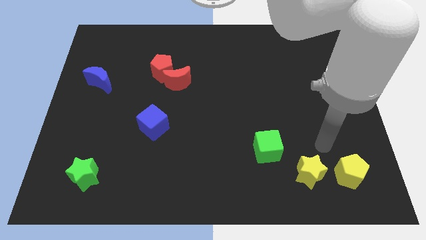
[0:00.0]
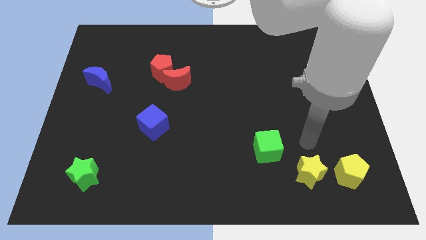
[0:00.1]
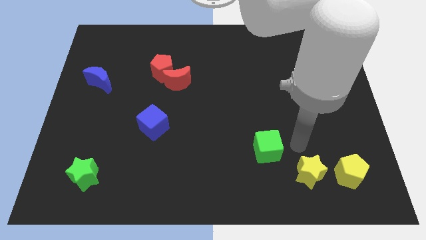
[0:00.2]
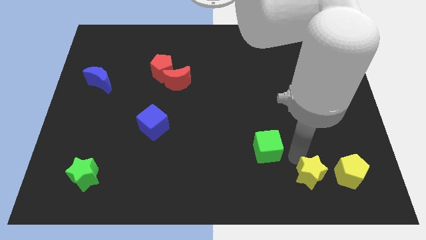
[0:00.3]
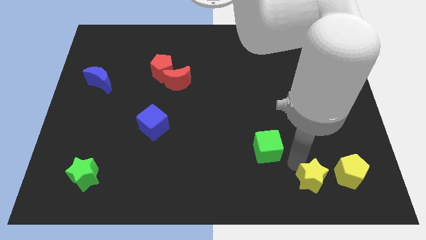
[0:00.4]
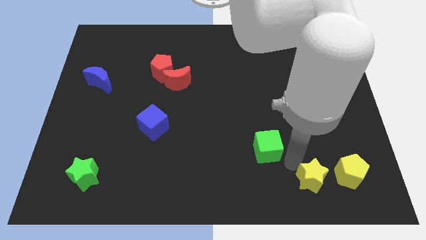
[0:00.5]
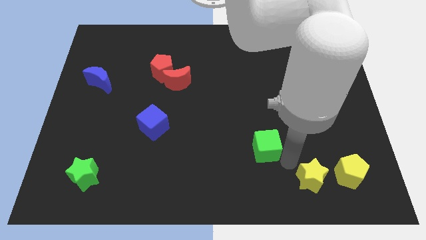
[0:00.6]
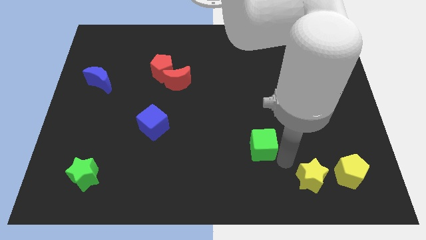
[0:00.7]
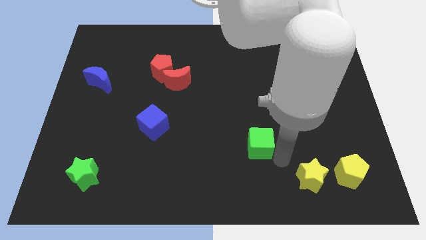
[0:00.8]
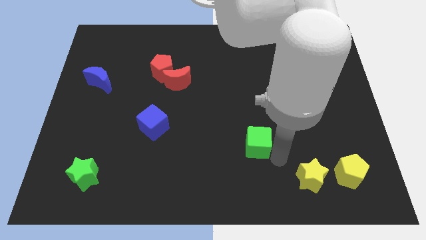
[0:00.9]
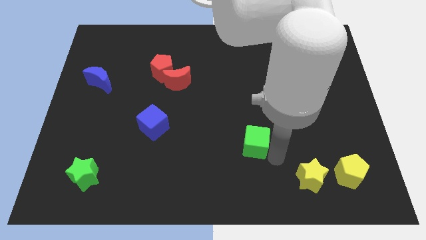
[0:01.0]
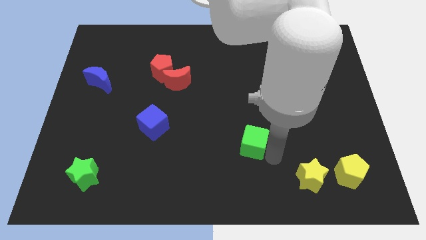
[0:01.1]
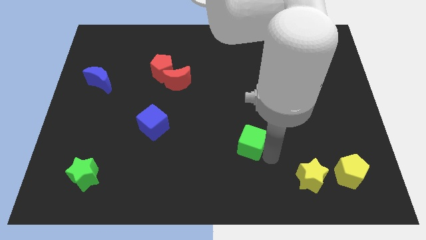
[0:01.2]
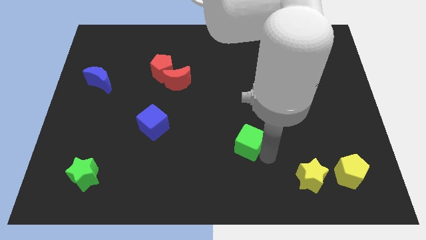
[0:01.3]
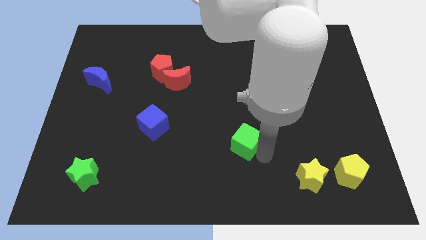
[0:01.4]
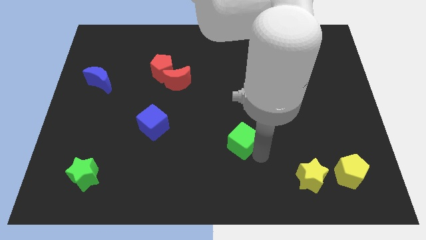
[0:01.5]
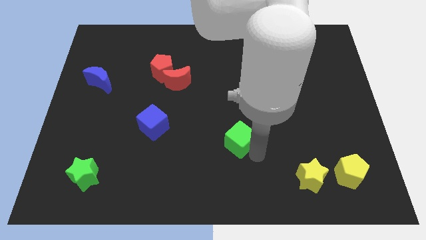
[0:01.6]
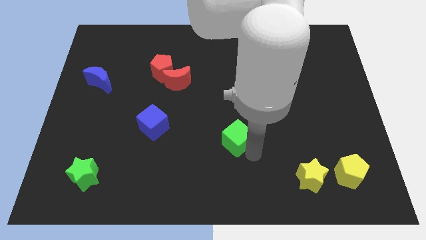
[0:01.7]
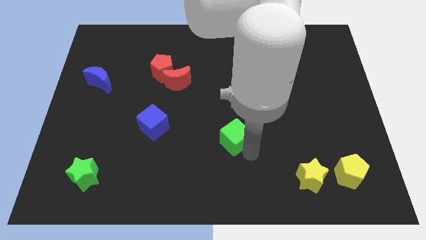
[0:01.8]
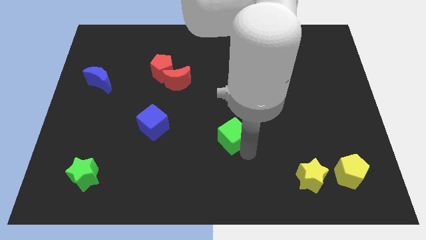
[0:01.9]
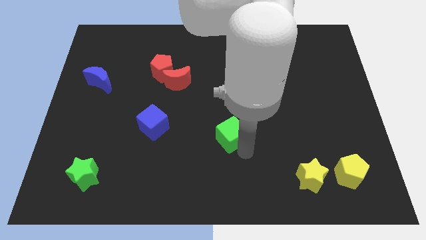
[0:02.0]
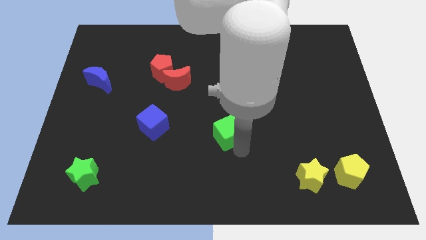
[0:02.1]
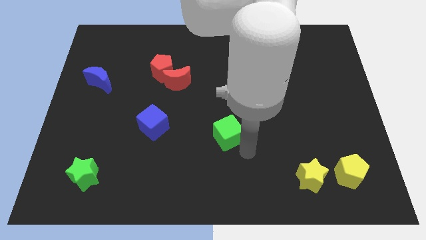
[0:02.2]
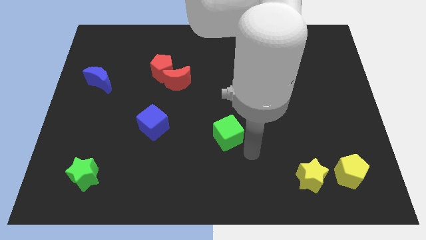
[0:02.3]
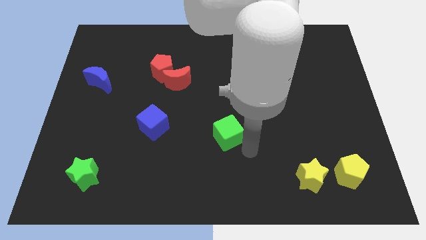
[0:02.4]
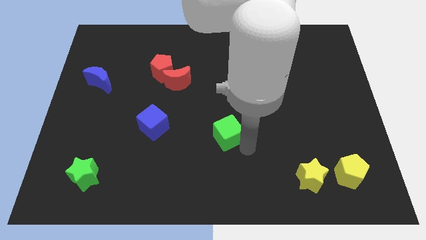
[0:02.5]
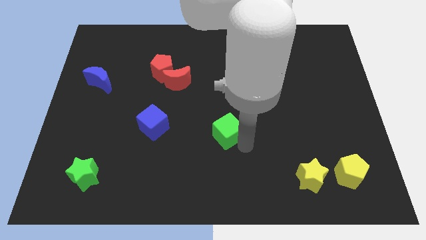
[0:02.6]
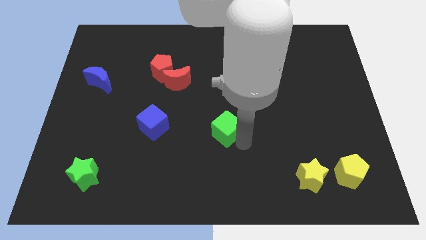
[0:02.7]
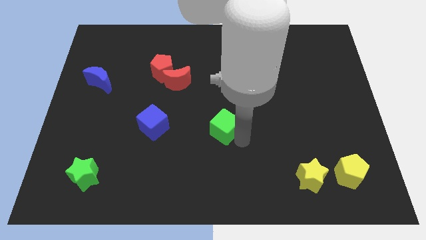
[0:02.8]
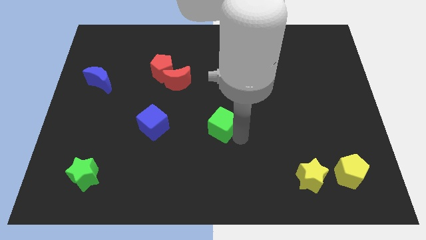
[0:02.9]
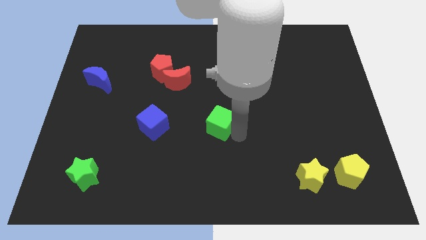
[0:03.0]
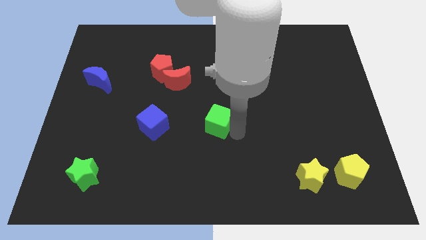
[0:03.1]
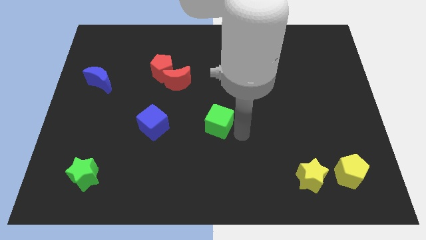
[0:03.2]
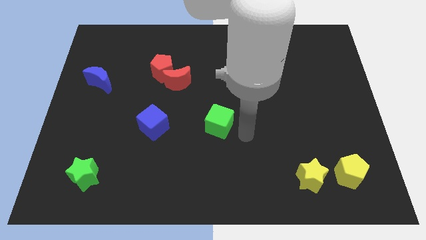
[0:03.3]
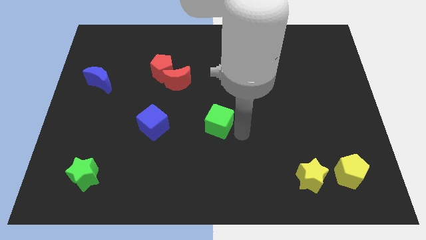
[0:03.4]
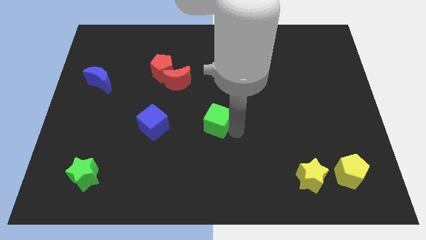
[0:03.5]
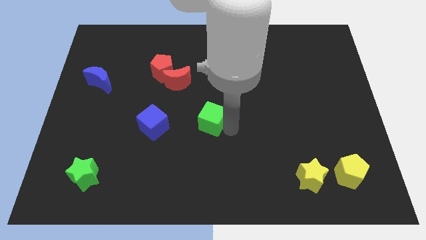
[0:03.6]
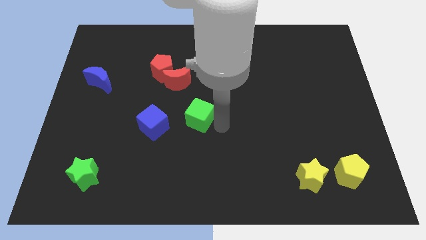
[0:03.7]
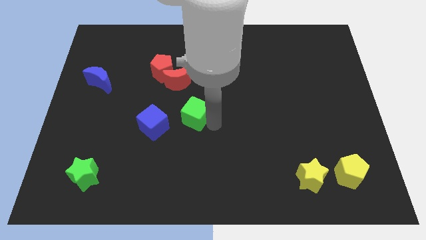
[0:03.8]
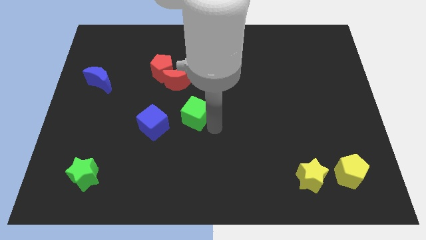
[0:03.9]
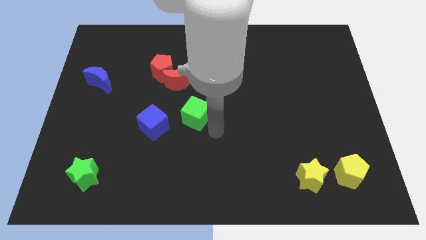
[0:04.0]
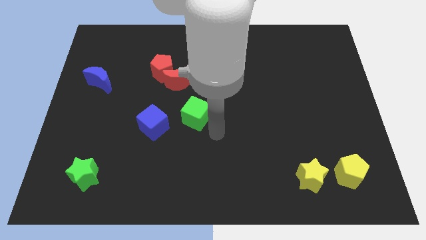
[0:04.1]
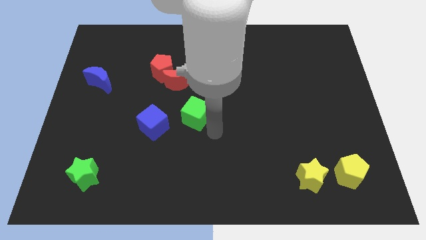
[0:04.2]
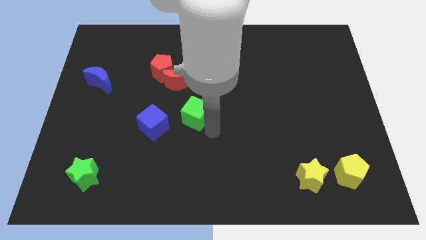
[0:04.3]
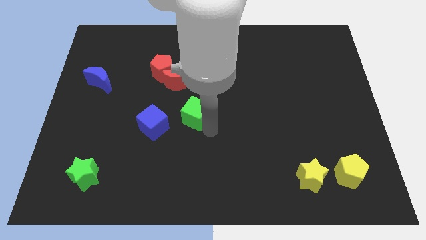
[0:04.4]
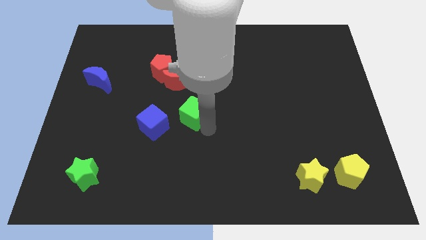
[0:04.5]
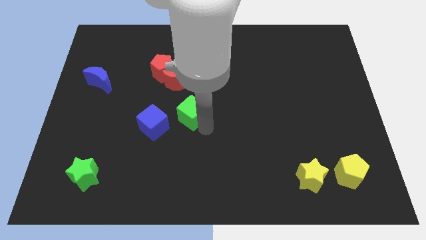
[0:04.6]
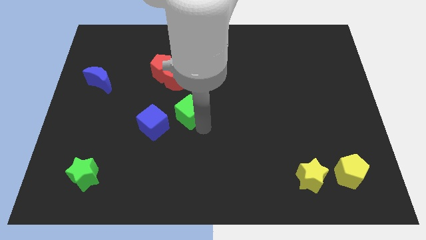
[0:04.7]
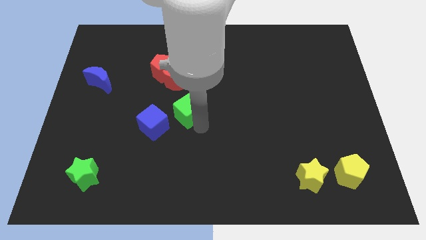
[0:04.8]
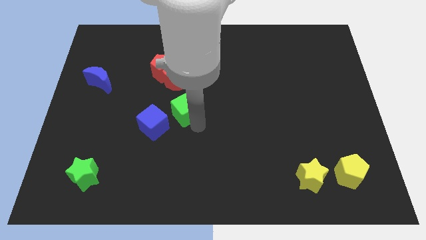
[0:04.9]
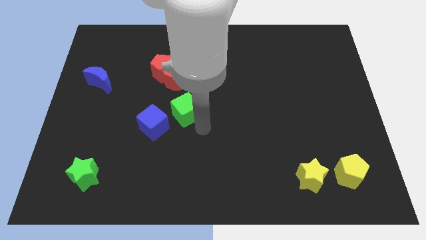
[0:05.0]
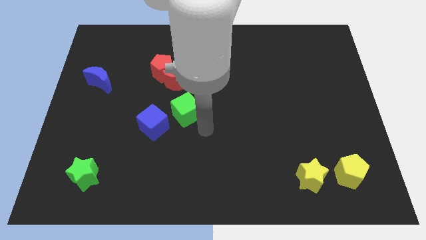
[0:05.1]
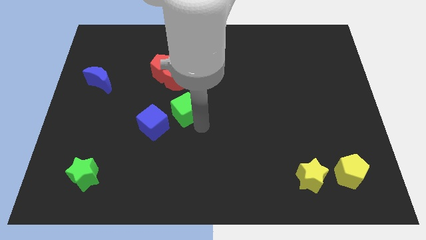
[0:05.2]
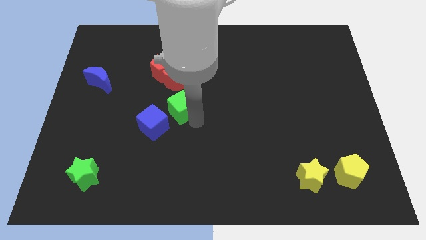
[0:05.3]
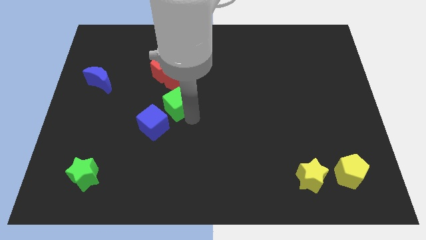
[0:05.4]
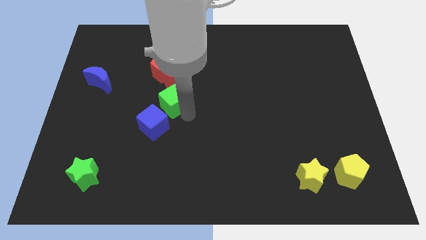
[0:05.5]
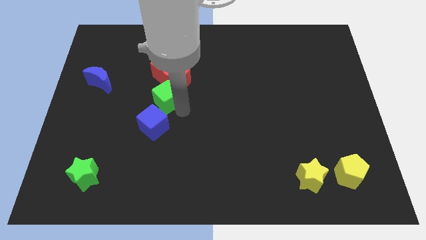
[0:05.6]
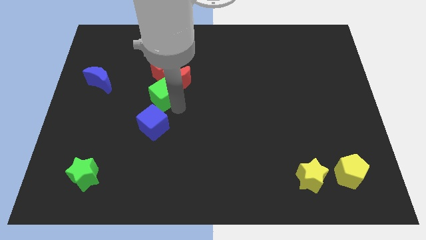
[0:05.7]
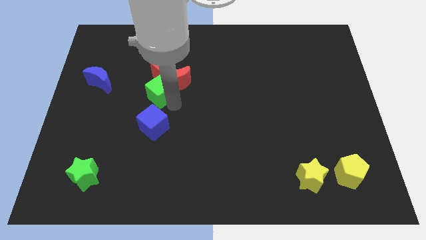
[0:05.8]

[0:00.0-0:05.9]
put the green cube just left of the red moon

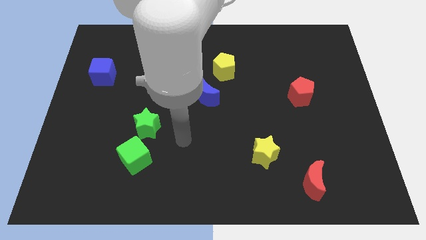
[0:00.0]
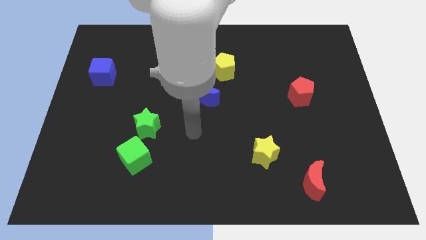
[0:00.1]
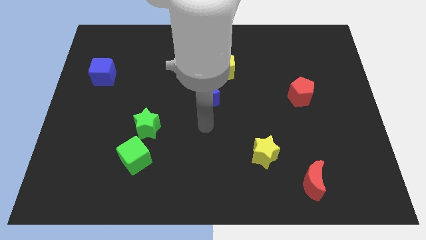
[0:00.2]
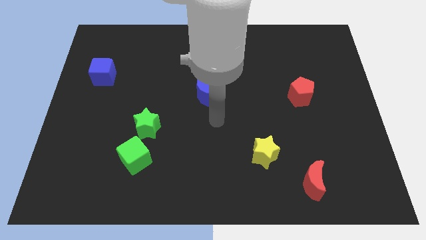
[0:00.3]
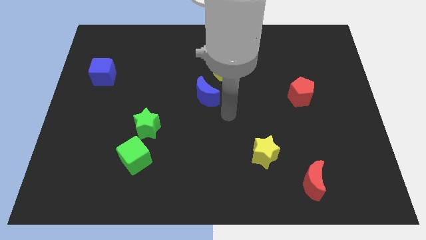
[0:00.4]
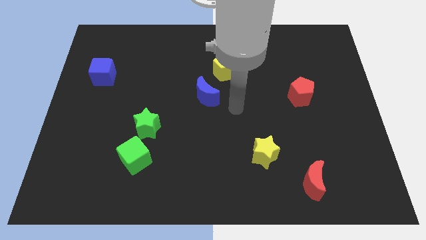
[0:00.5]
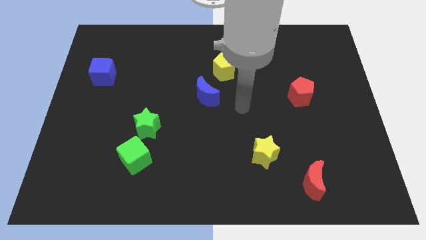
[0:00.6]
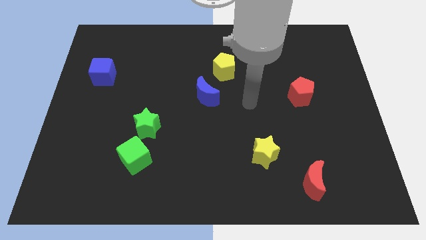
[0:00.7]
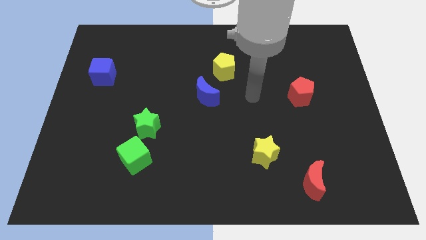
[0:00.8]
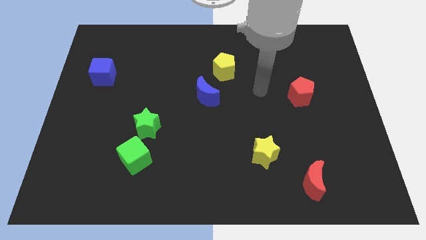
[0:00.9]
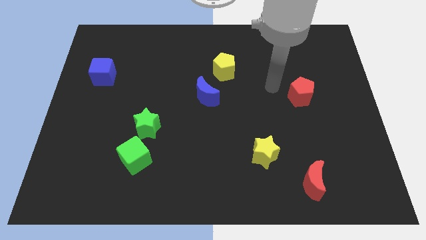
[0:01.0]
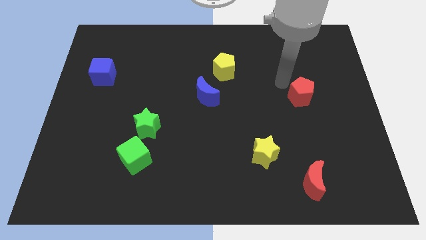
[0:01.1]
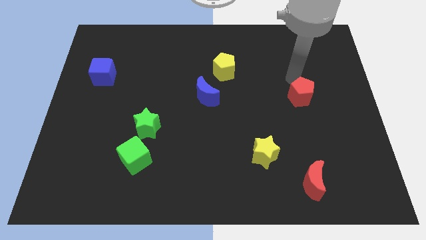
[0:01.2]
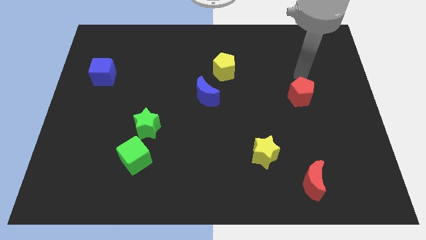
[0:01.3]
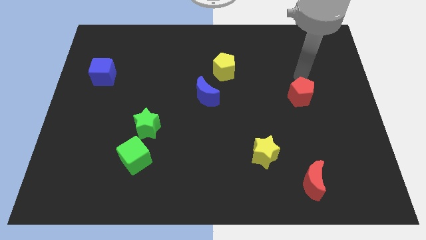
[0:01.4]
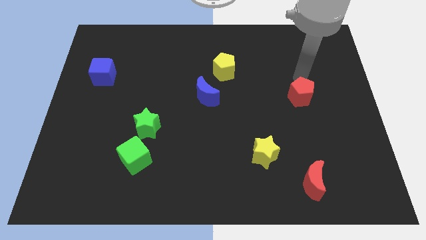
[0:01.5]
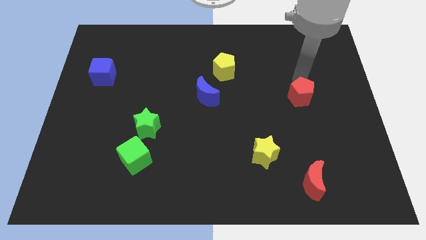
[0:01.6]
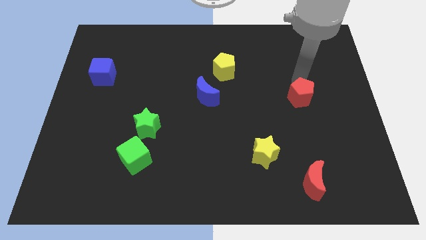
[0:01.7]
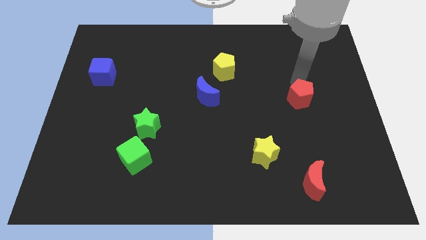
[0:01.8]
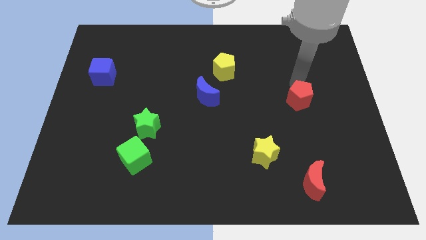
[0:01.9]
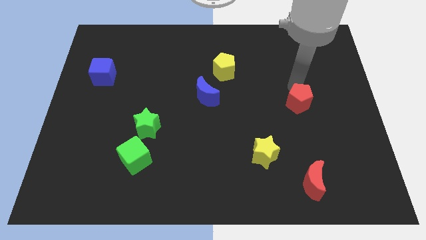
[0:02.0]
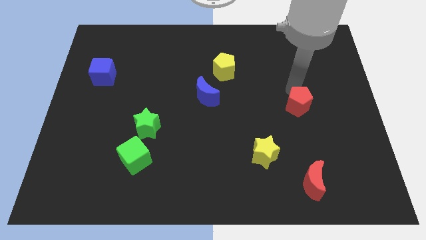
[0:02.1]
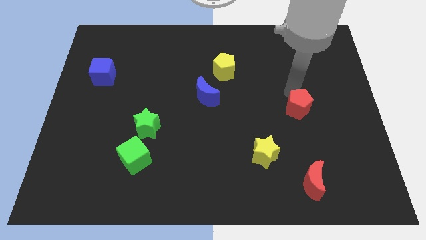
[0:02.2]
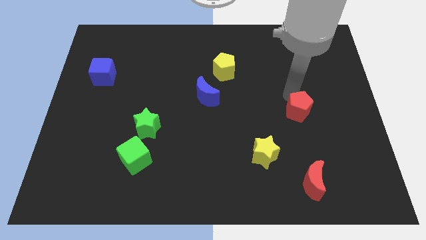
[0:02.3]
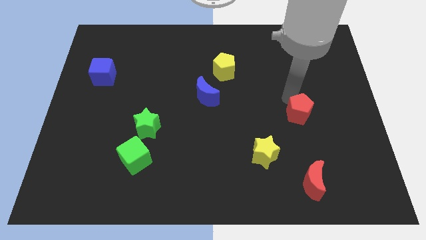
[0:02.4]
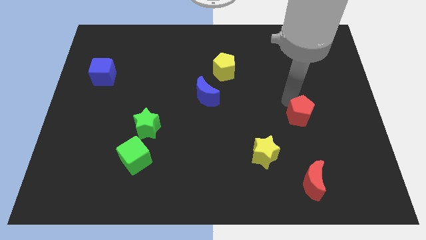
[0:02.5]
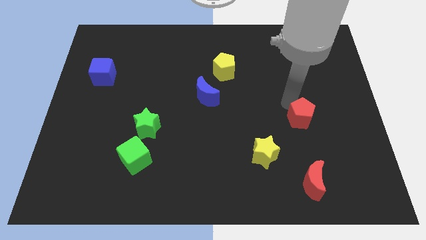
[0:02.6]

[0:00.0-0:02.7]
put the red pentagon to the top of the red moon
